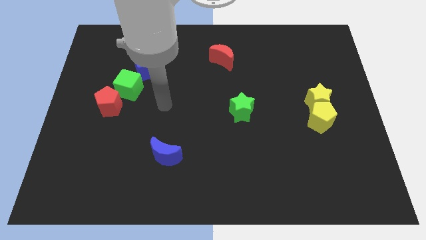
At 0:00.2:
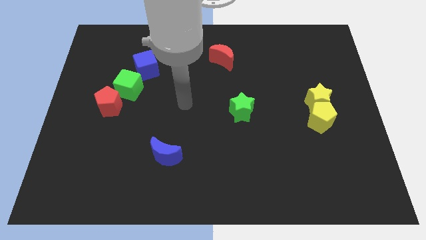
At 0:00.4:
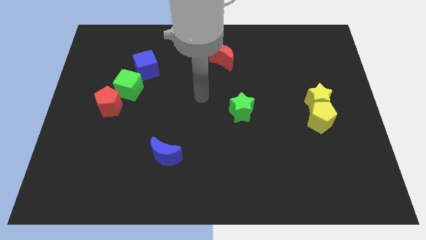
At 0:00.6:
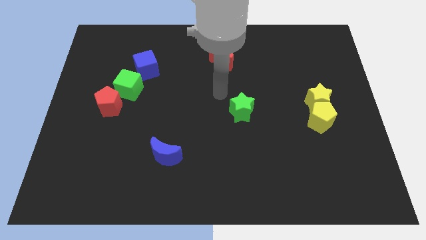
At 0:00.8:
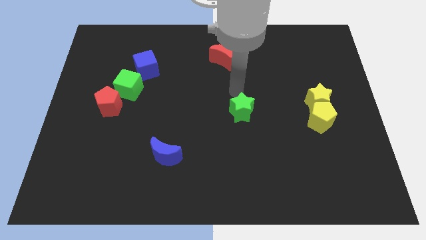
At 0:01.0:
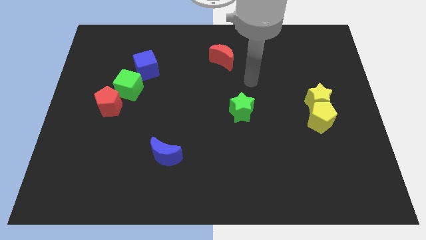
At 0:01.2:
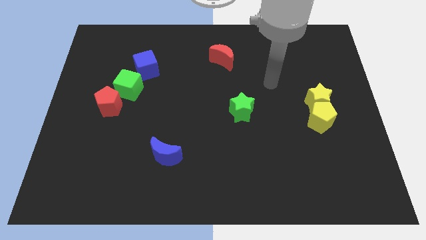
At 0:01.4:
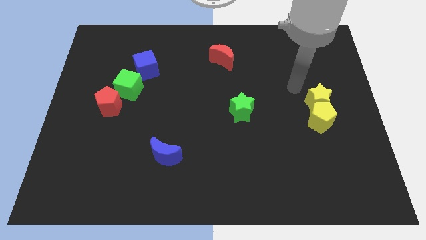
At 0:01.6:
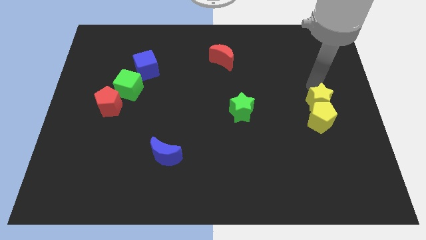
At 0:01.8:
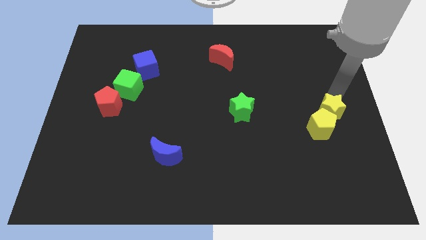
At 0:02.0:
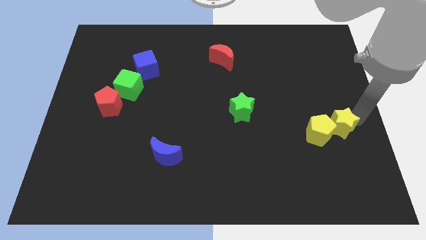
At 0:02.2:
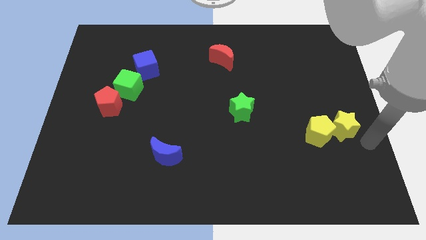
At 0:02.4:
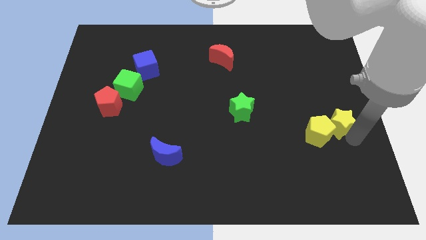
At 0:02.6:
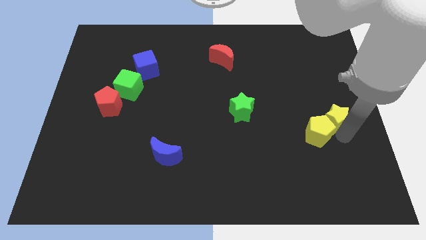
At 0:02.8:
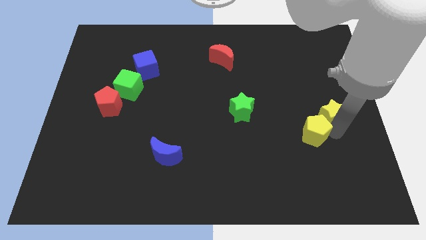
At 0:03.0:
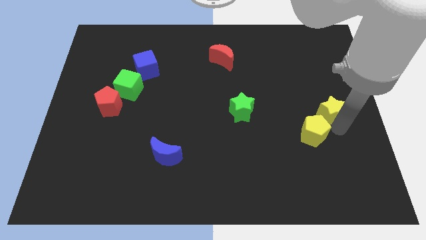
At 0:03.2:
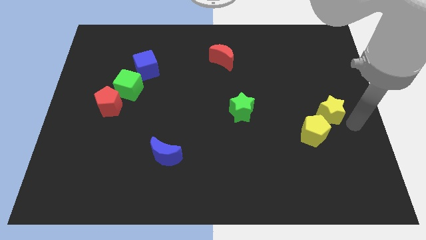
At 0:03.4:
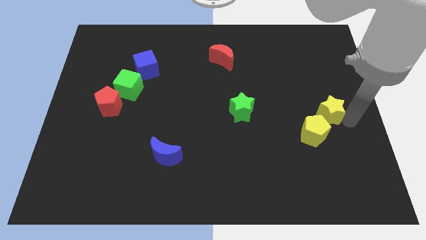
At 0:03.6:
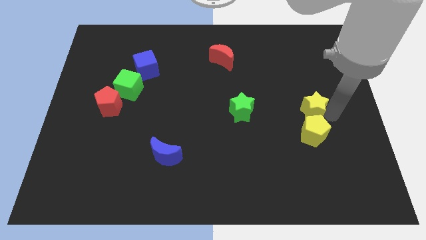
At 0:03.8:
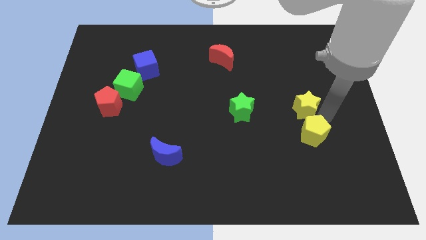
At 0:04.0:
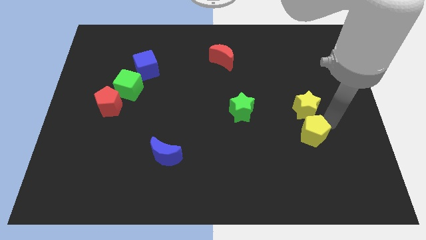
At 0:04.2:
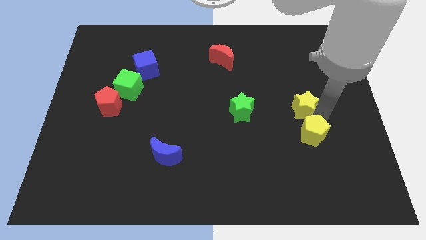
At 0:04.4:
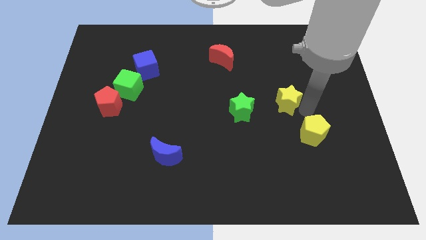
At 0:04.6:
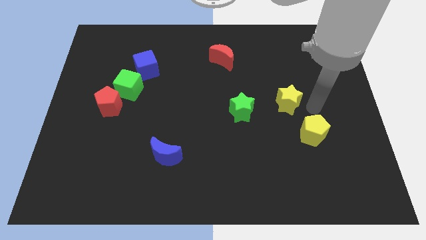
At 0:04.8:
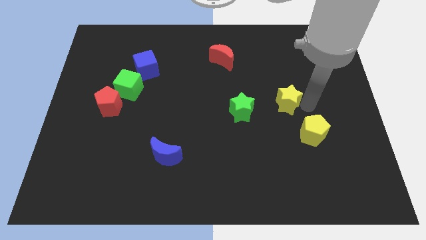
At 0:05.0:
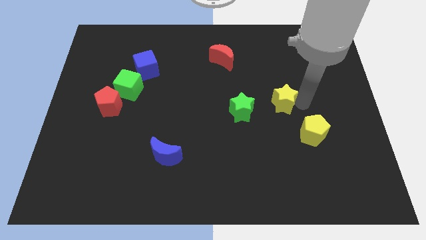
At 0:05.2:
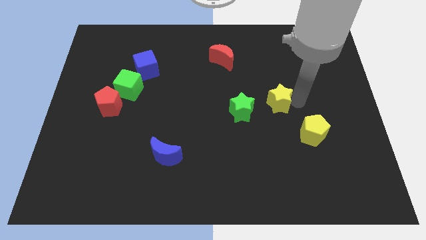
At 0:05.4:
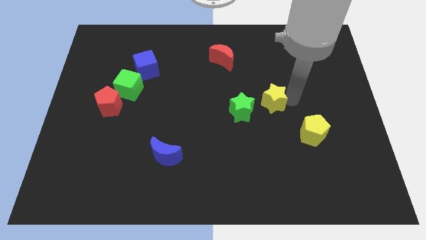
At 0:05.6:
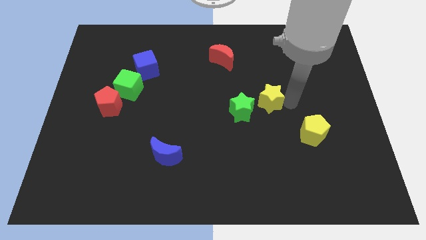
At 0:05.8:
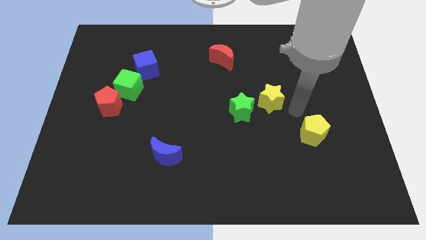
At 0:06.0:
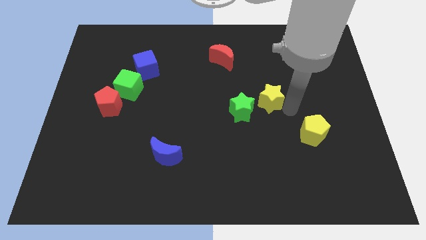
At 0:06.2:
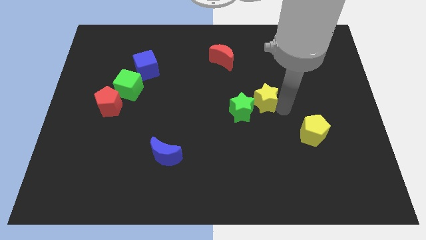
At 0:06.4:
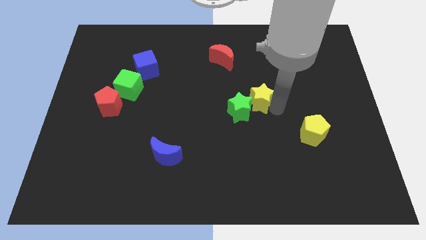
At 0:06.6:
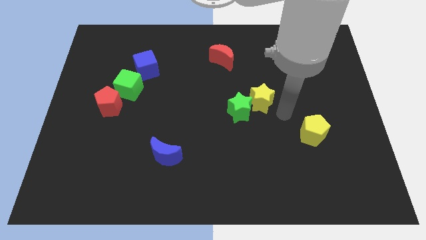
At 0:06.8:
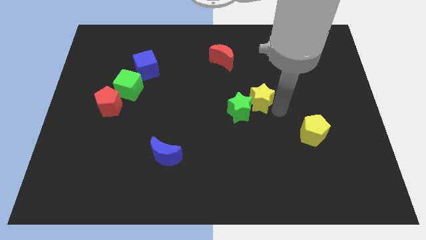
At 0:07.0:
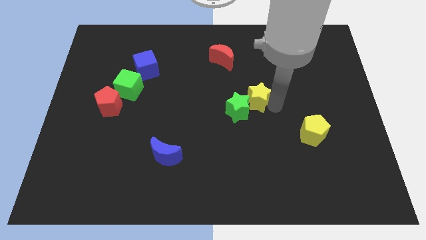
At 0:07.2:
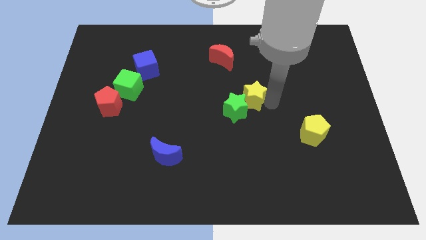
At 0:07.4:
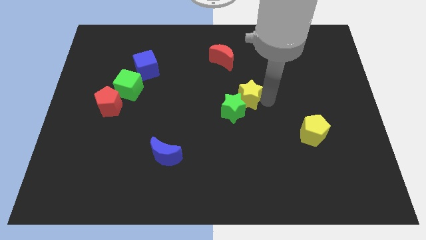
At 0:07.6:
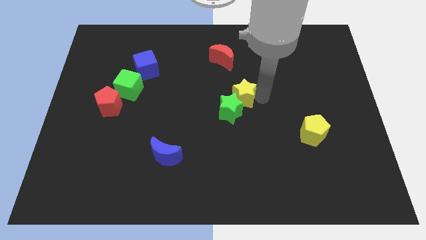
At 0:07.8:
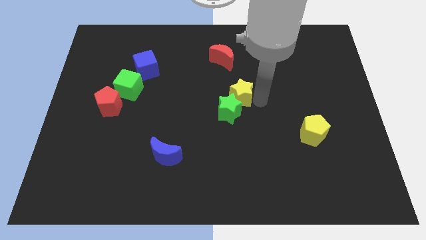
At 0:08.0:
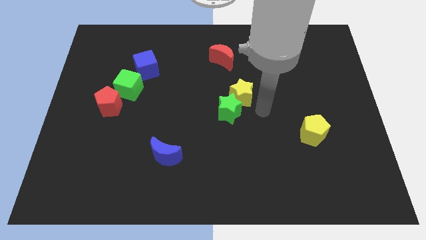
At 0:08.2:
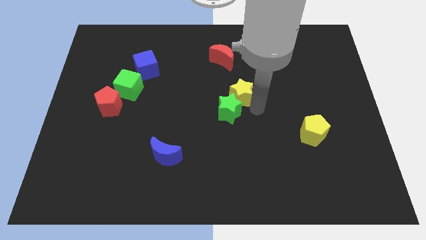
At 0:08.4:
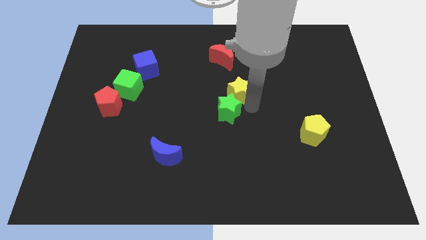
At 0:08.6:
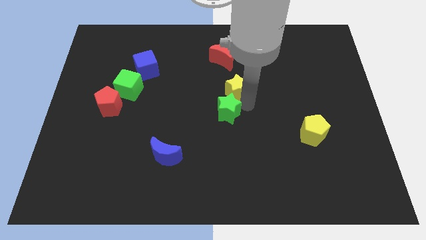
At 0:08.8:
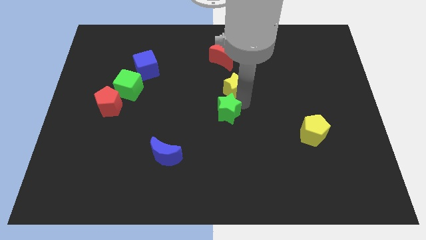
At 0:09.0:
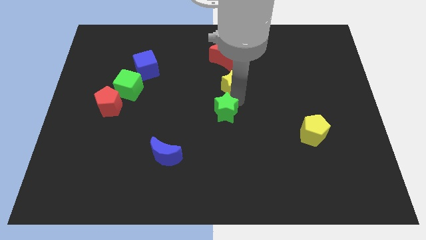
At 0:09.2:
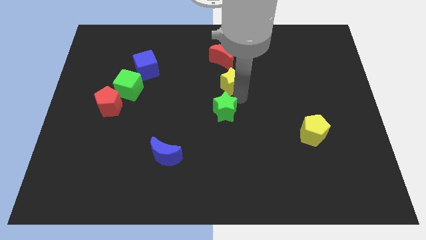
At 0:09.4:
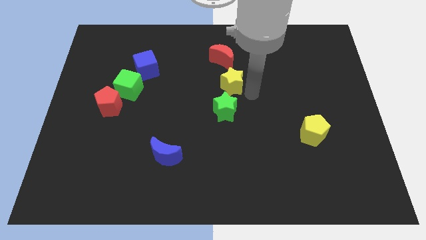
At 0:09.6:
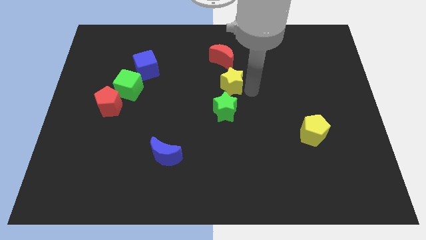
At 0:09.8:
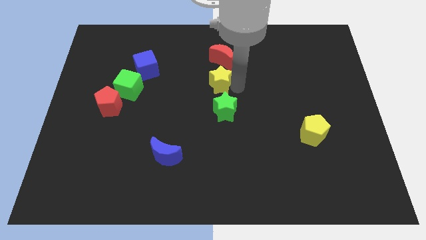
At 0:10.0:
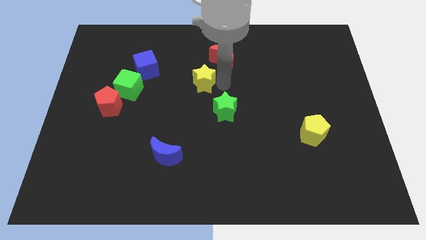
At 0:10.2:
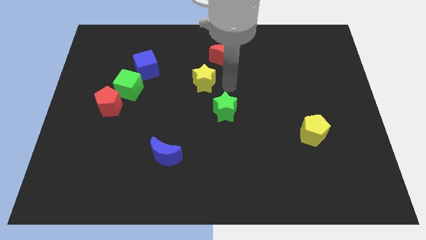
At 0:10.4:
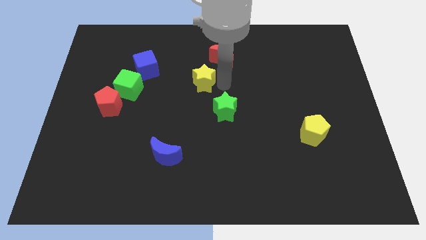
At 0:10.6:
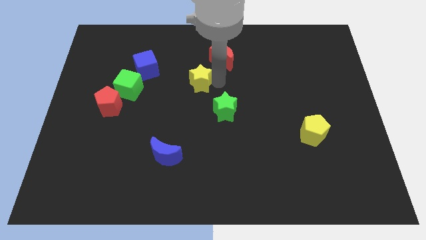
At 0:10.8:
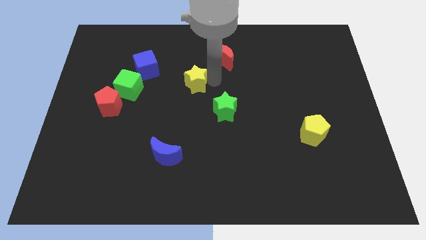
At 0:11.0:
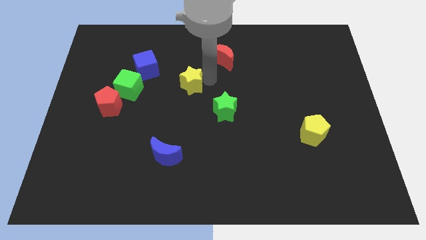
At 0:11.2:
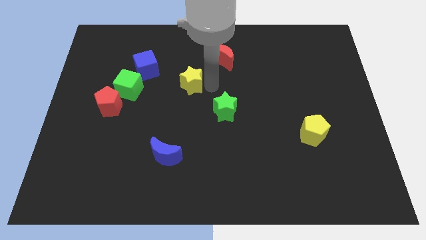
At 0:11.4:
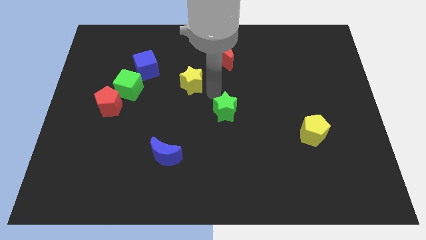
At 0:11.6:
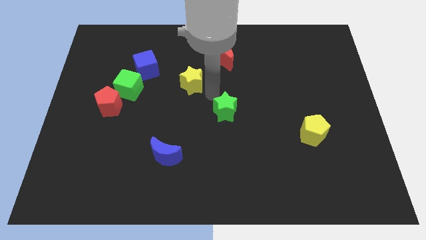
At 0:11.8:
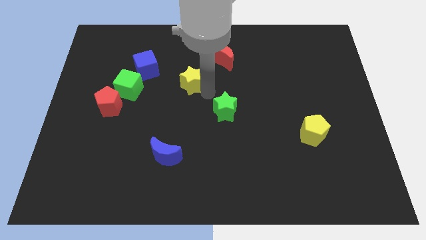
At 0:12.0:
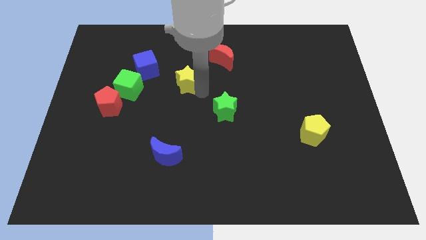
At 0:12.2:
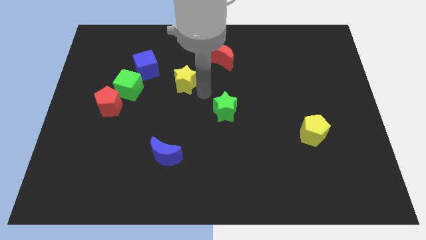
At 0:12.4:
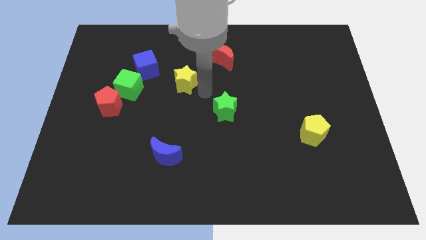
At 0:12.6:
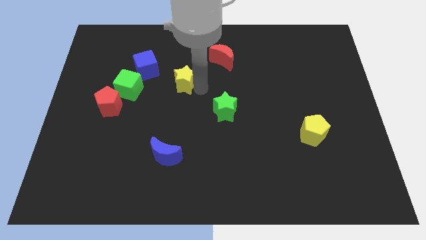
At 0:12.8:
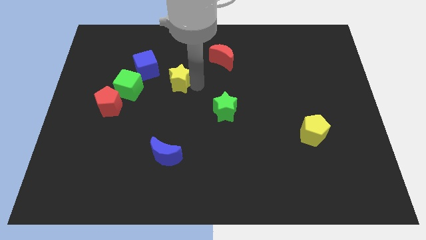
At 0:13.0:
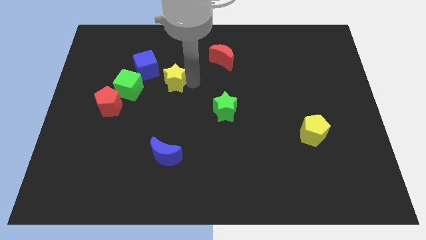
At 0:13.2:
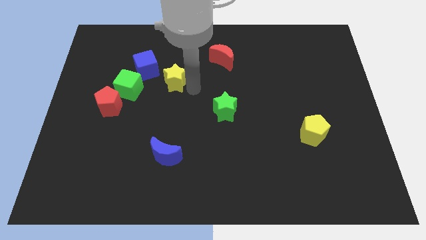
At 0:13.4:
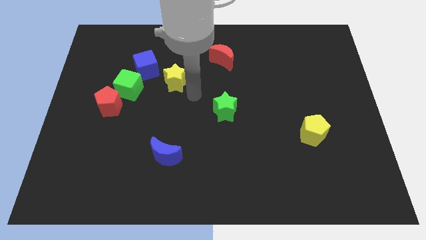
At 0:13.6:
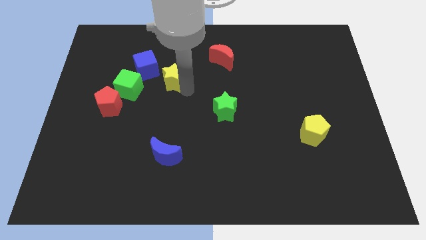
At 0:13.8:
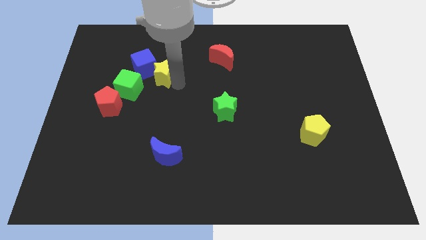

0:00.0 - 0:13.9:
put the yellow star to the blue cube
